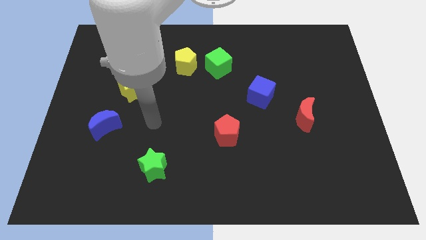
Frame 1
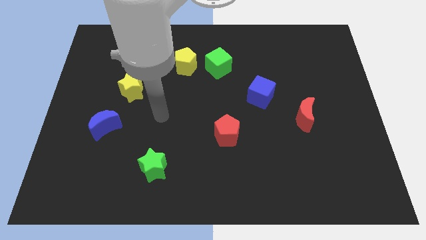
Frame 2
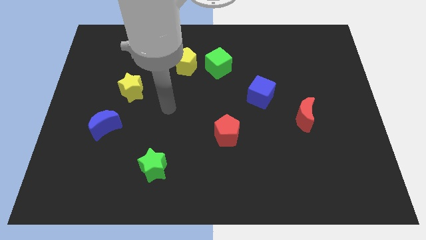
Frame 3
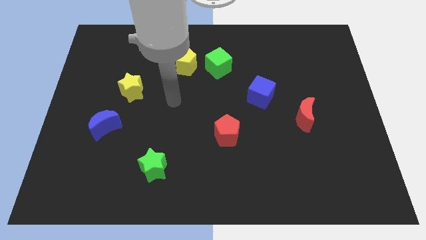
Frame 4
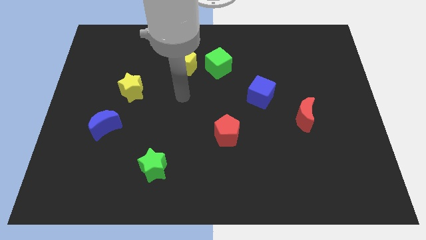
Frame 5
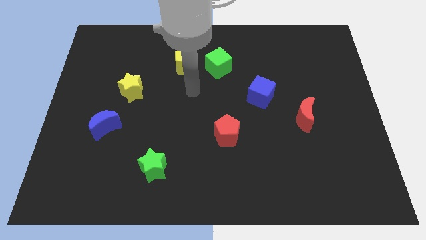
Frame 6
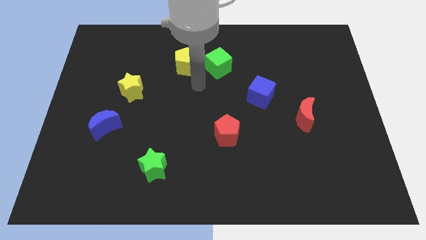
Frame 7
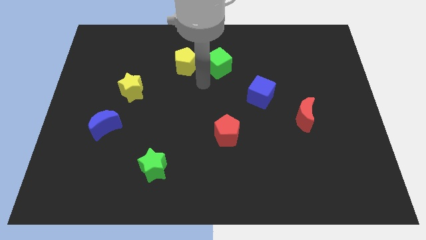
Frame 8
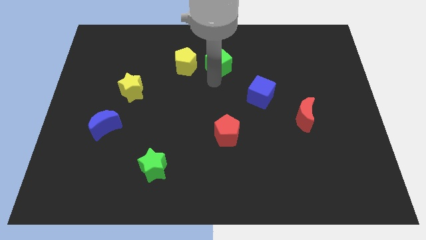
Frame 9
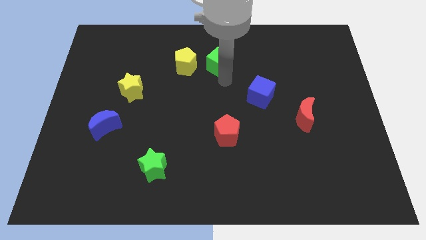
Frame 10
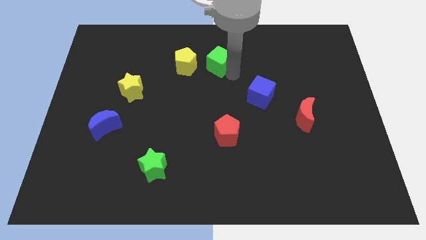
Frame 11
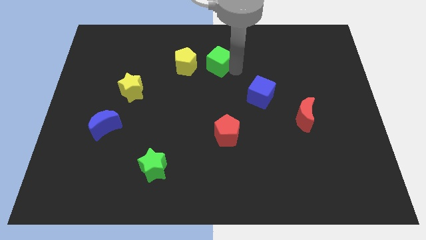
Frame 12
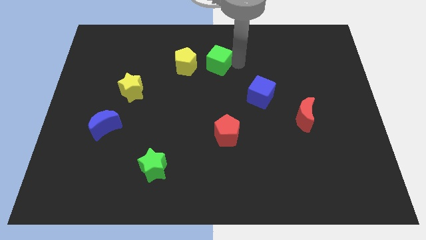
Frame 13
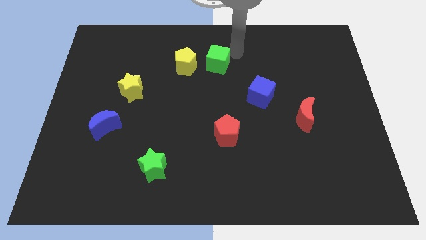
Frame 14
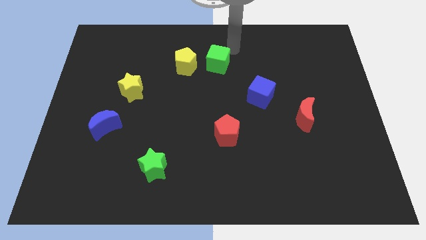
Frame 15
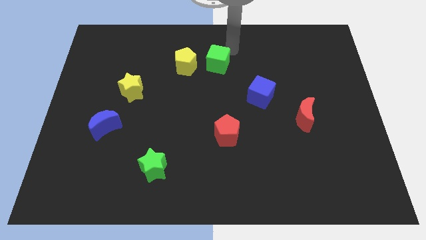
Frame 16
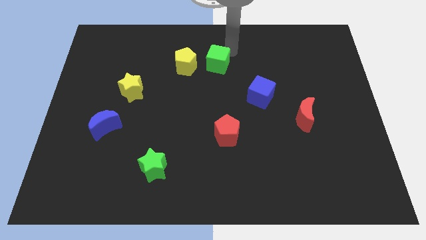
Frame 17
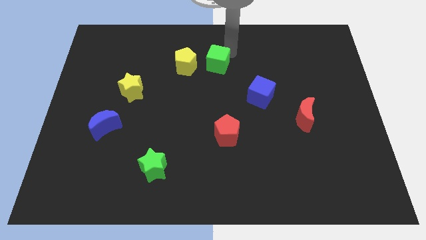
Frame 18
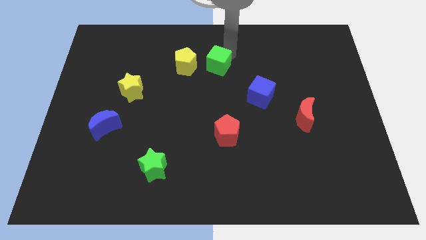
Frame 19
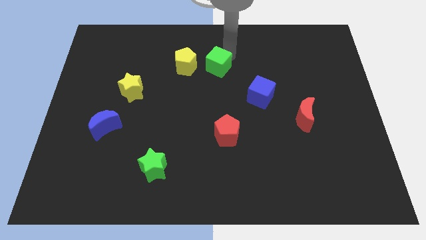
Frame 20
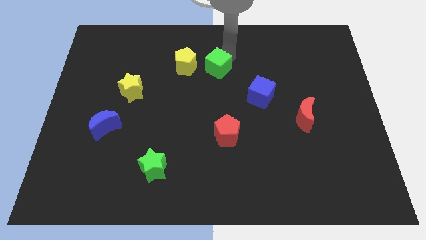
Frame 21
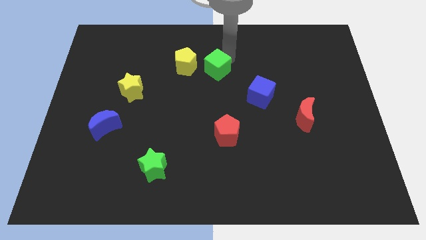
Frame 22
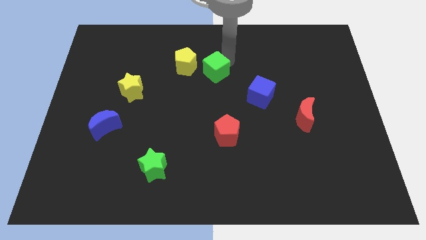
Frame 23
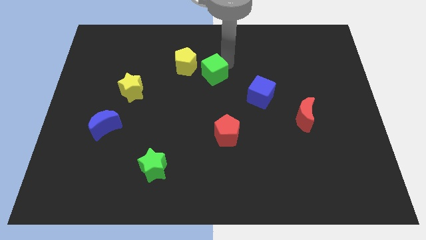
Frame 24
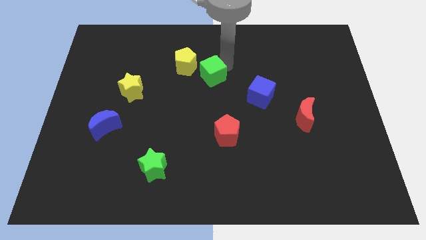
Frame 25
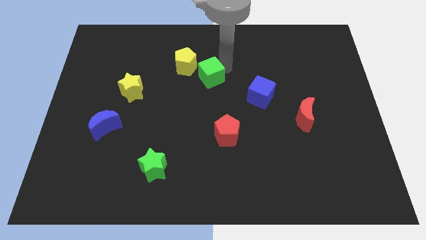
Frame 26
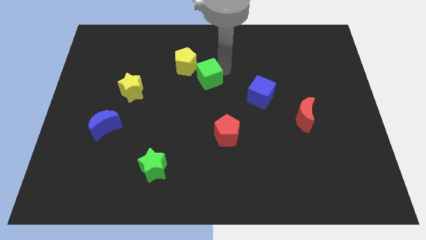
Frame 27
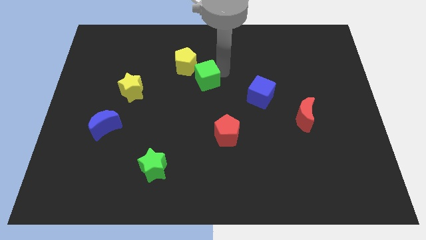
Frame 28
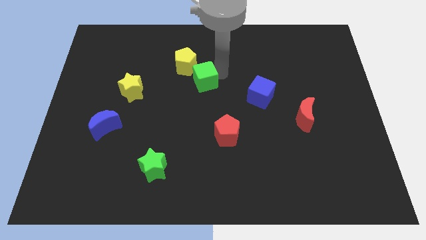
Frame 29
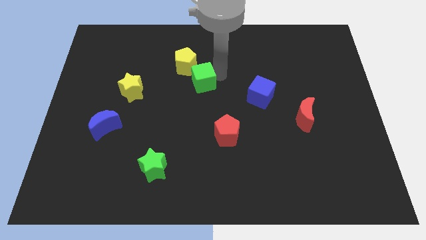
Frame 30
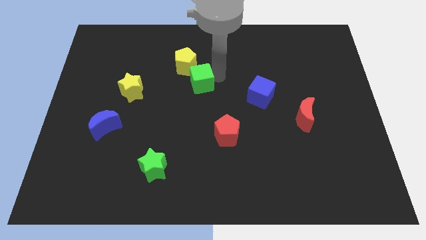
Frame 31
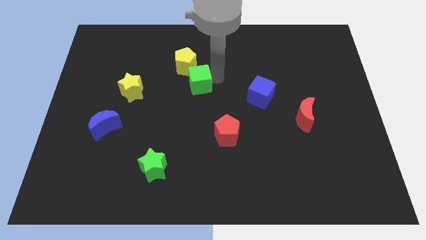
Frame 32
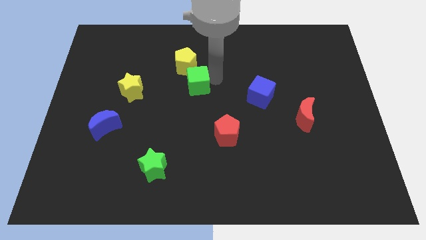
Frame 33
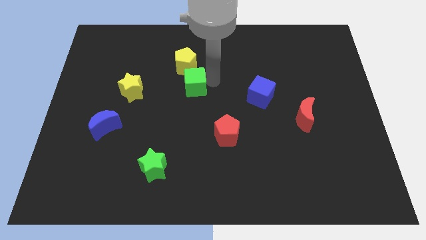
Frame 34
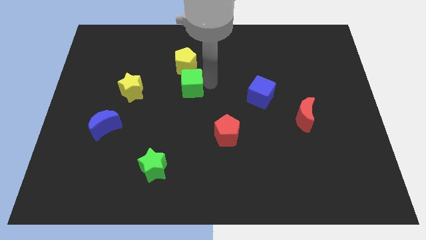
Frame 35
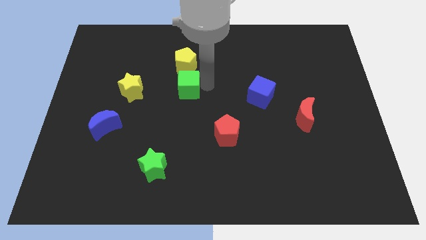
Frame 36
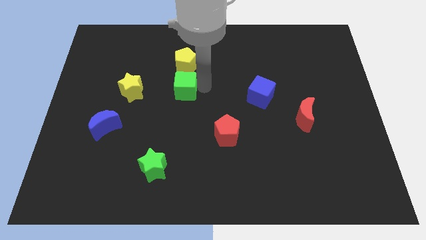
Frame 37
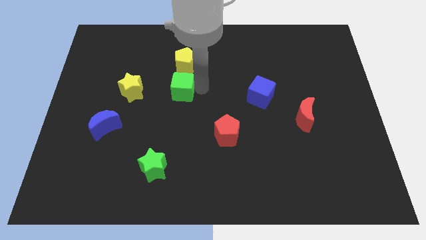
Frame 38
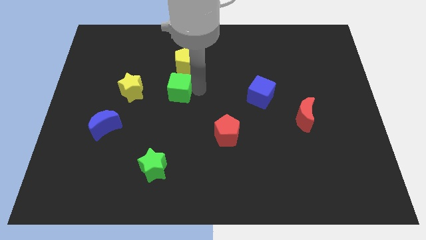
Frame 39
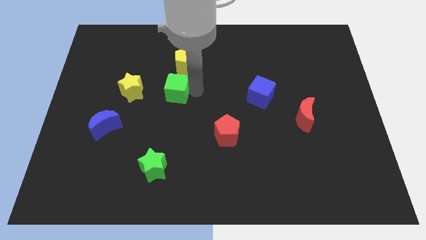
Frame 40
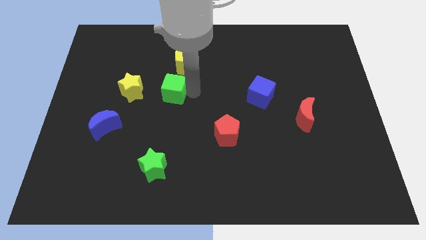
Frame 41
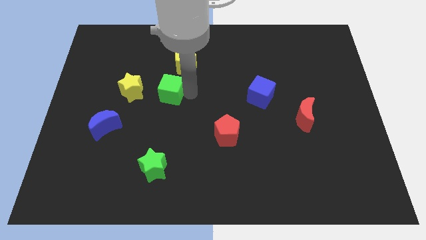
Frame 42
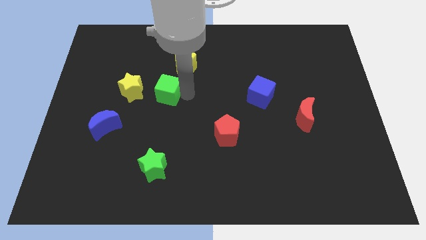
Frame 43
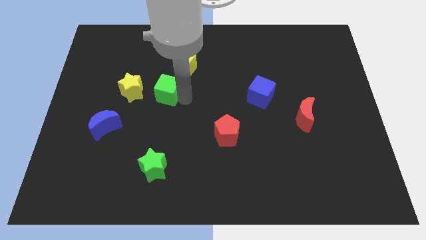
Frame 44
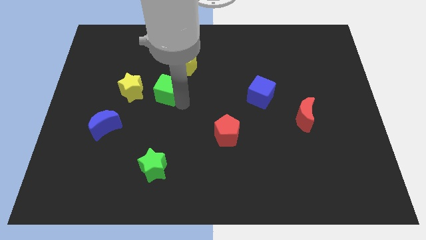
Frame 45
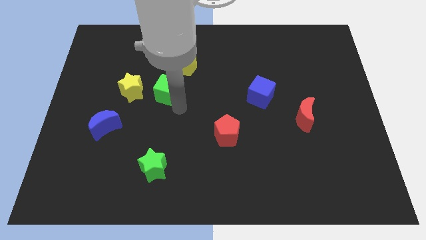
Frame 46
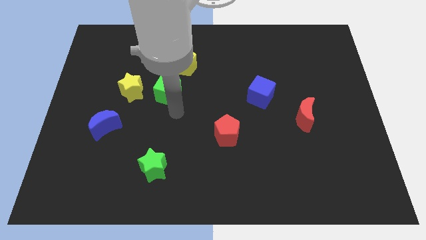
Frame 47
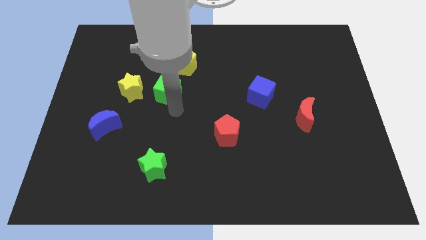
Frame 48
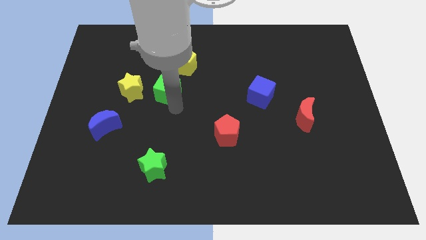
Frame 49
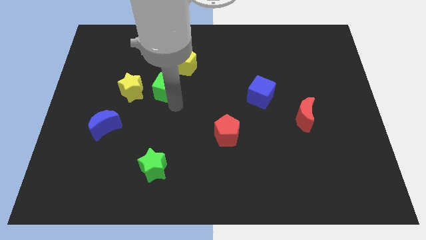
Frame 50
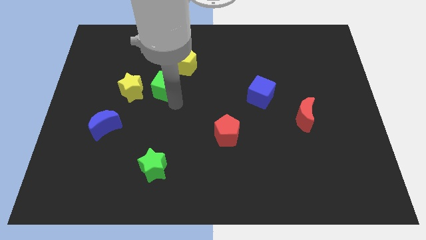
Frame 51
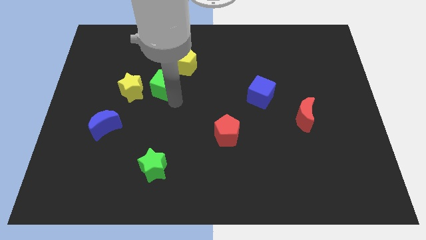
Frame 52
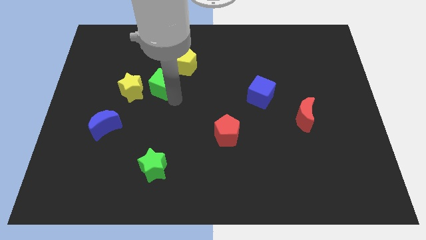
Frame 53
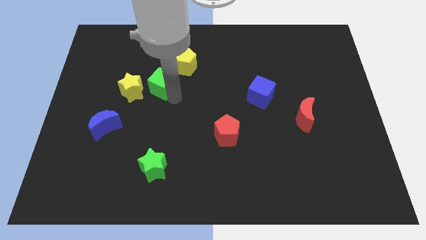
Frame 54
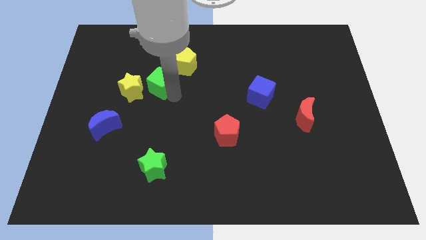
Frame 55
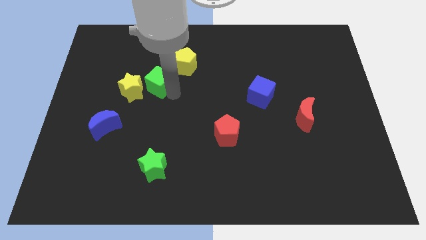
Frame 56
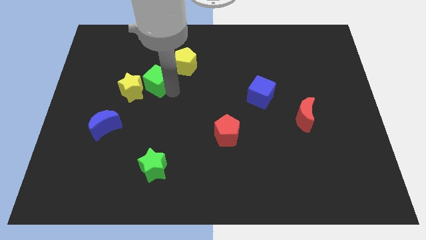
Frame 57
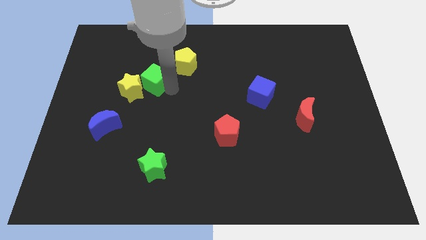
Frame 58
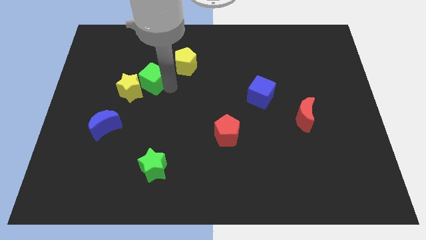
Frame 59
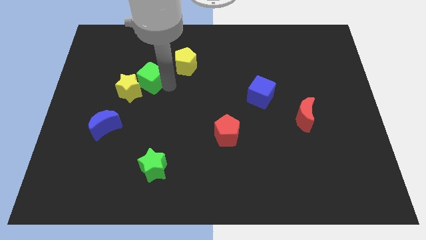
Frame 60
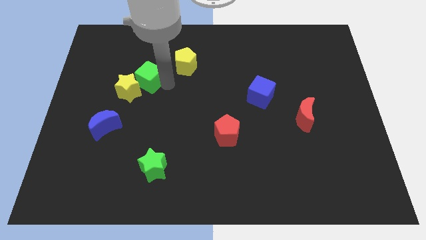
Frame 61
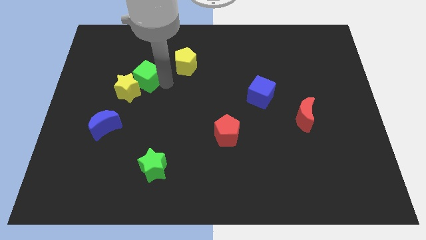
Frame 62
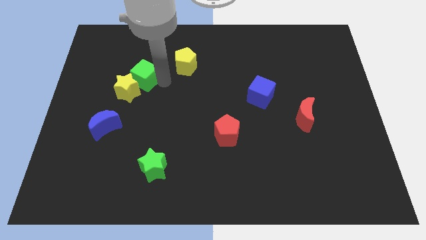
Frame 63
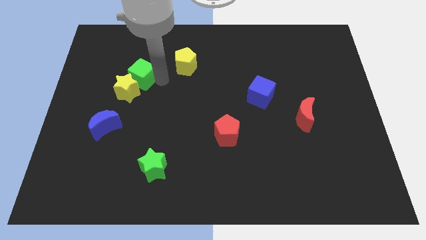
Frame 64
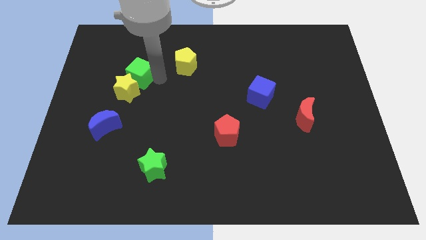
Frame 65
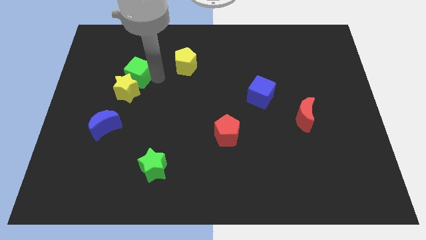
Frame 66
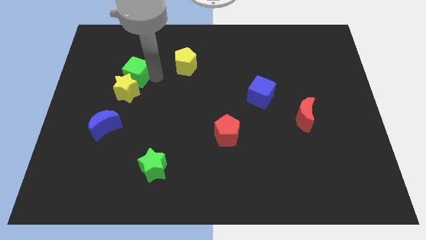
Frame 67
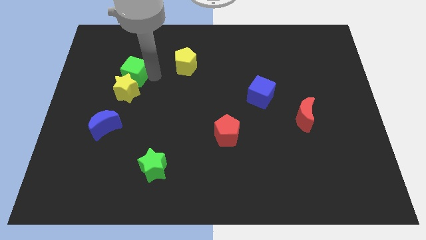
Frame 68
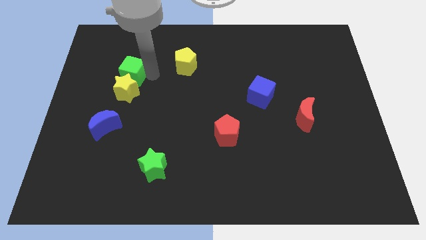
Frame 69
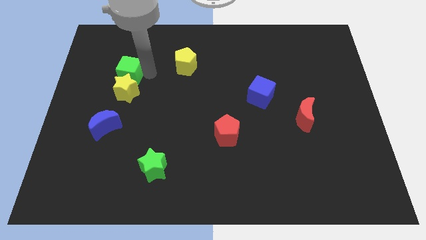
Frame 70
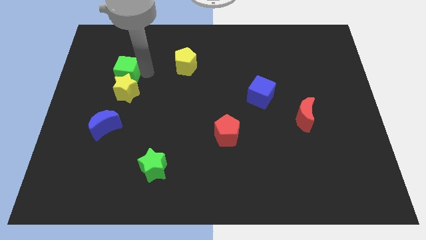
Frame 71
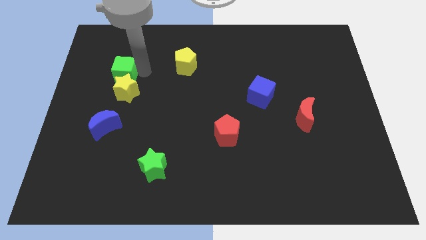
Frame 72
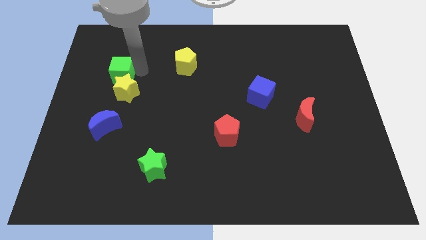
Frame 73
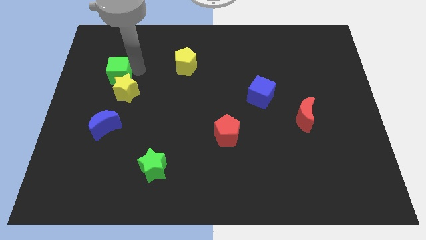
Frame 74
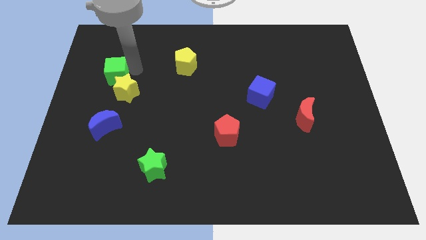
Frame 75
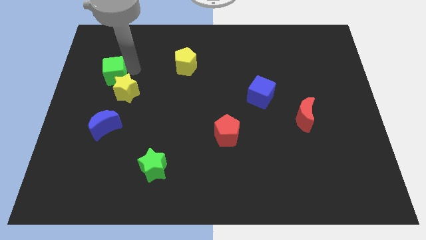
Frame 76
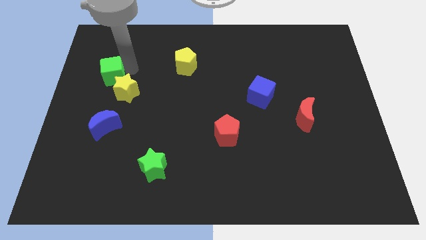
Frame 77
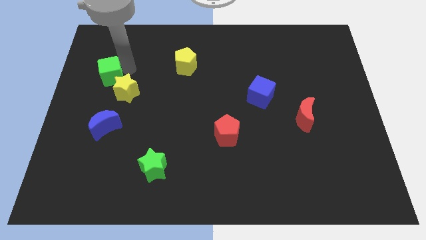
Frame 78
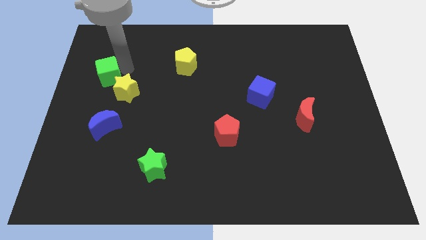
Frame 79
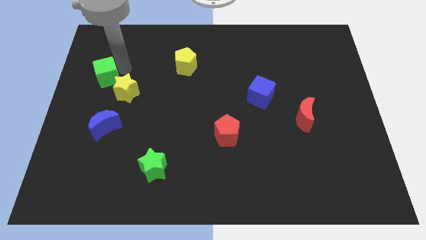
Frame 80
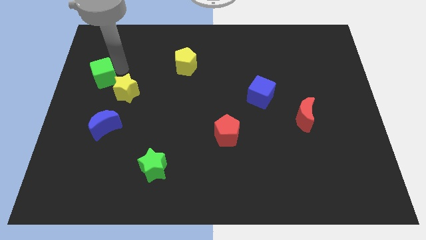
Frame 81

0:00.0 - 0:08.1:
put the green cube to the left side of the board
